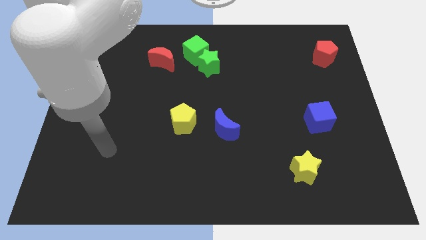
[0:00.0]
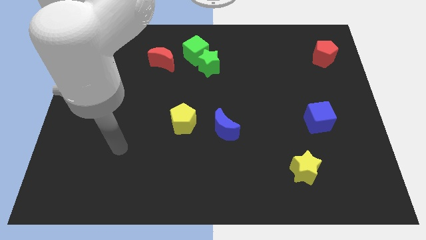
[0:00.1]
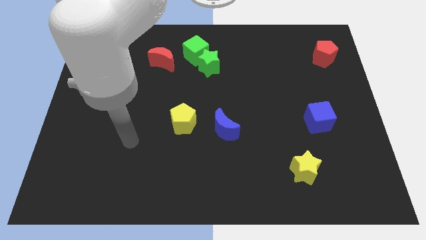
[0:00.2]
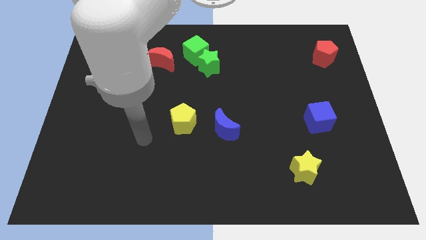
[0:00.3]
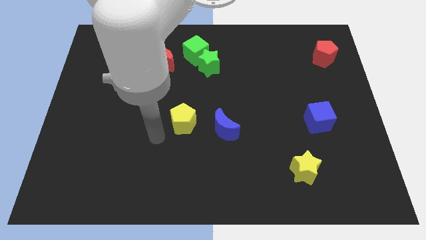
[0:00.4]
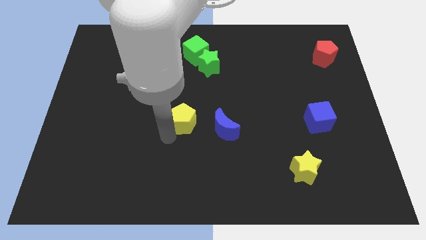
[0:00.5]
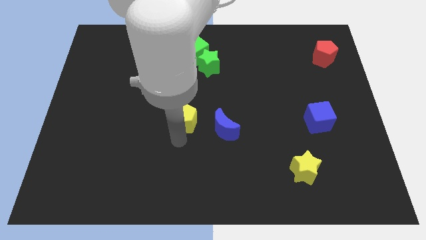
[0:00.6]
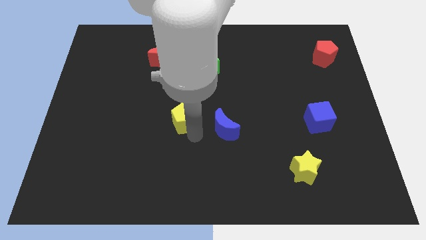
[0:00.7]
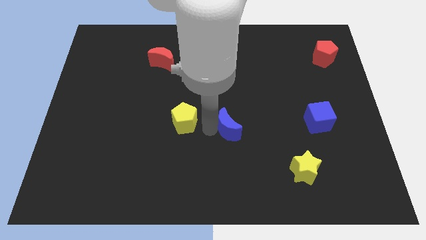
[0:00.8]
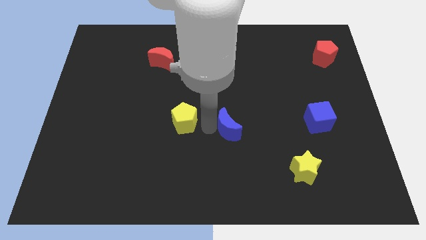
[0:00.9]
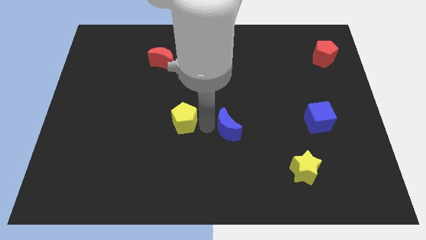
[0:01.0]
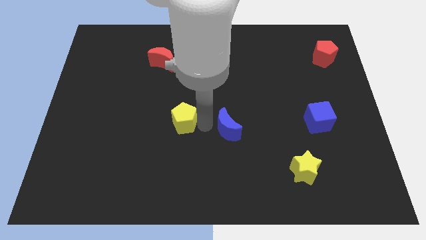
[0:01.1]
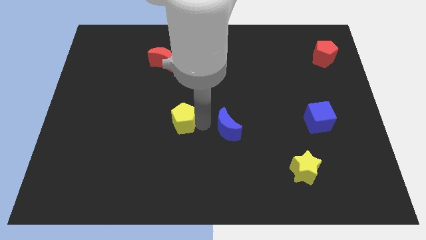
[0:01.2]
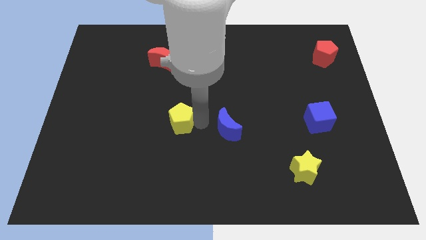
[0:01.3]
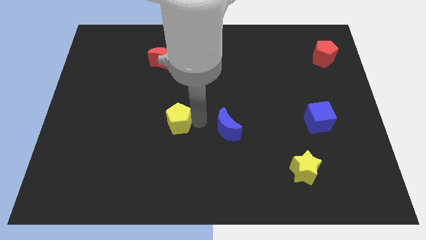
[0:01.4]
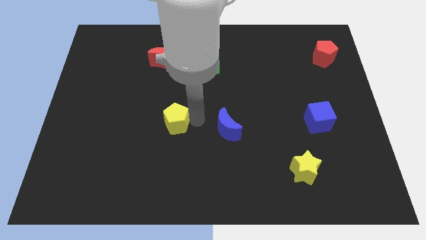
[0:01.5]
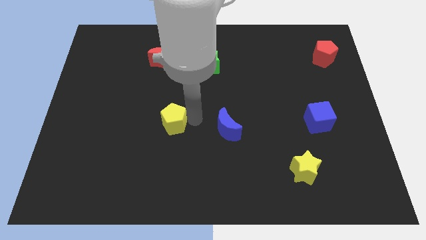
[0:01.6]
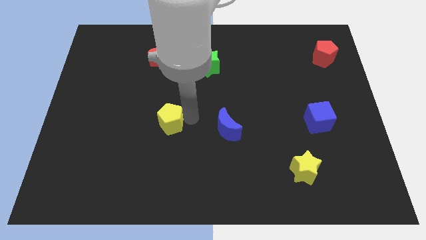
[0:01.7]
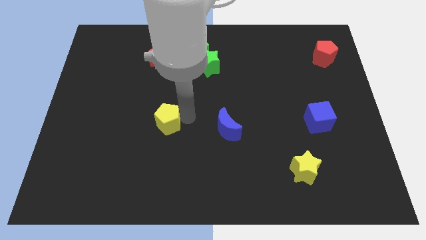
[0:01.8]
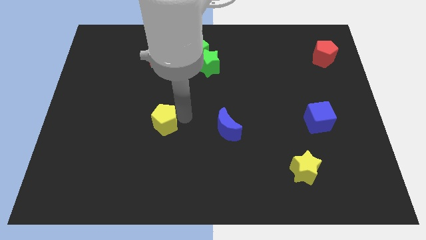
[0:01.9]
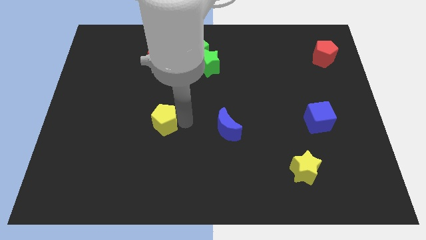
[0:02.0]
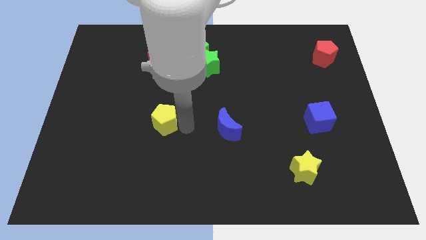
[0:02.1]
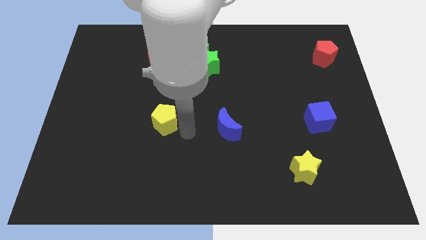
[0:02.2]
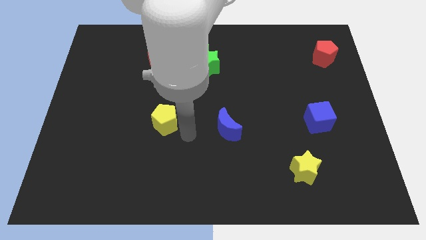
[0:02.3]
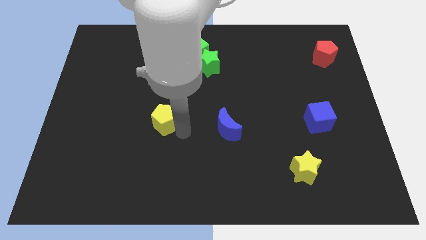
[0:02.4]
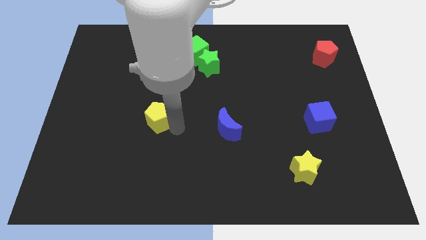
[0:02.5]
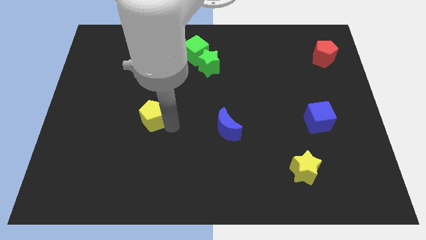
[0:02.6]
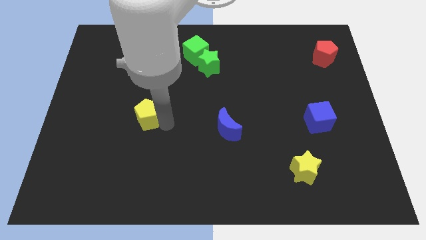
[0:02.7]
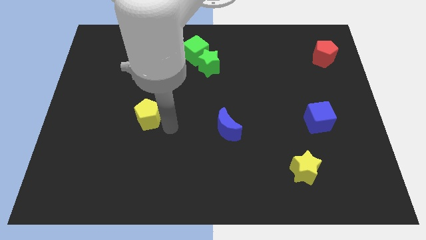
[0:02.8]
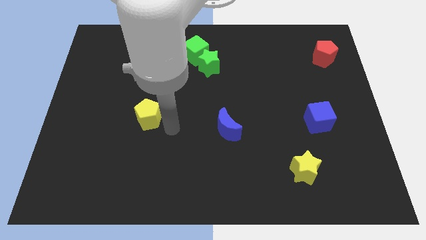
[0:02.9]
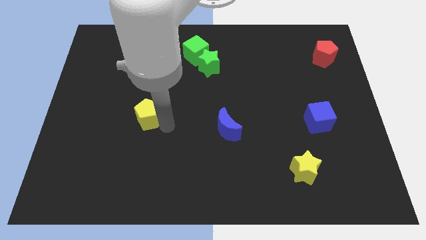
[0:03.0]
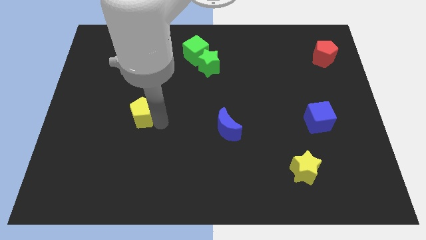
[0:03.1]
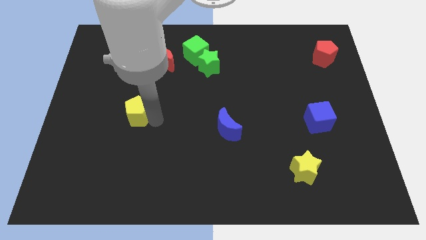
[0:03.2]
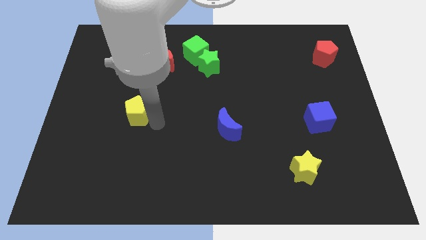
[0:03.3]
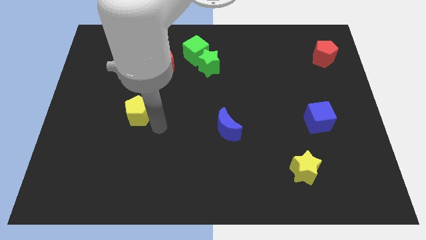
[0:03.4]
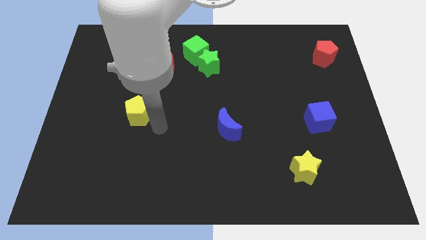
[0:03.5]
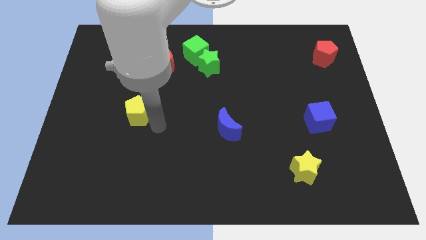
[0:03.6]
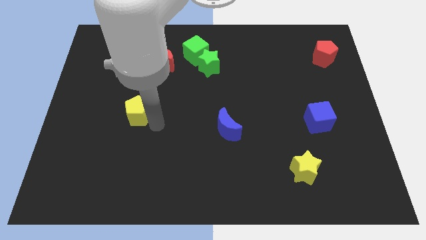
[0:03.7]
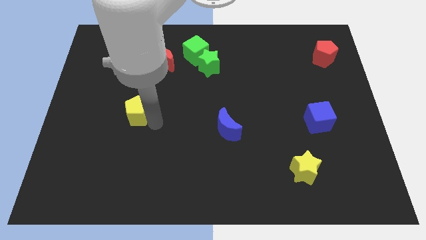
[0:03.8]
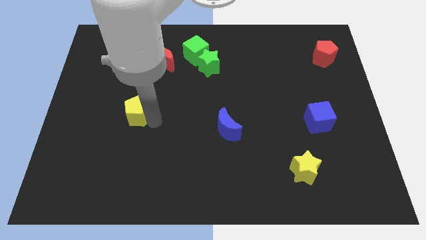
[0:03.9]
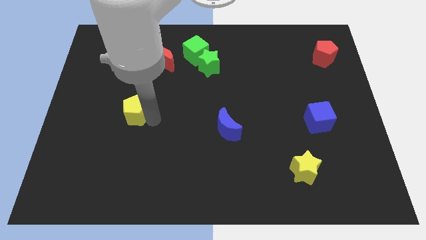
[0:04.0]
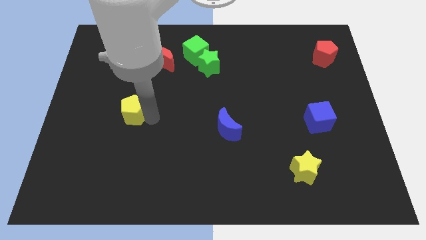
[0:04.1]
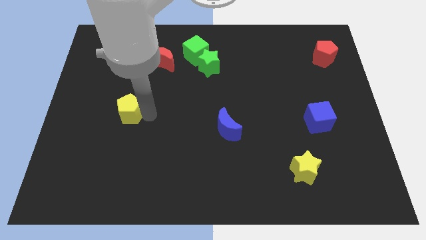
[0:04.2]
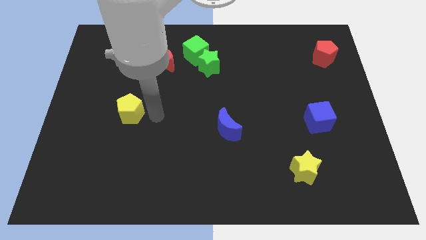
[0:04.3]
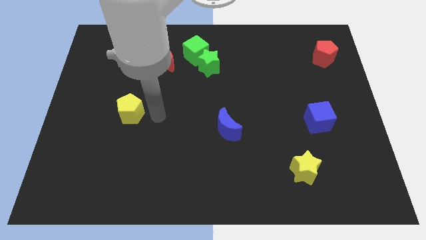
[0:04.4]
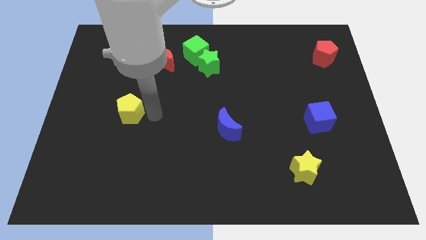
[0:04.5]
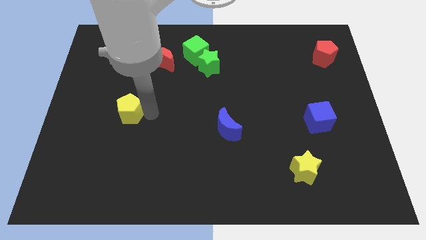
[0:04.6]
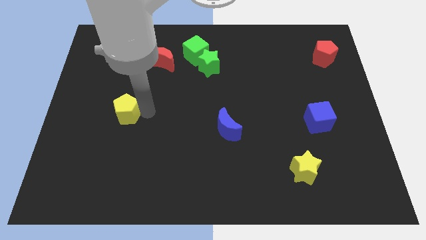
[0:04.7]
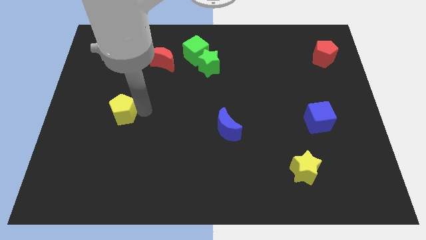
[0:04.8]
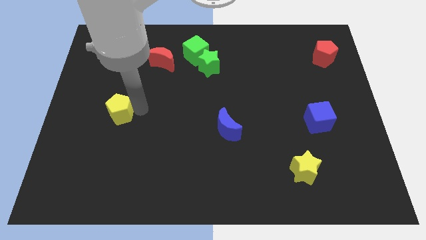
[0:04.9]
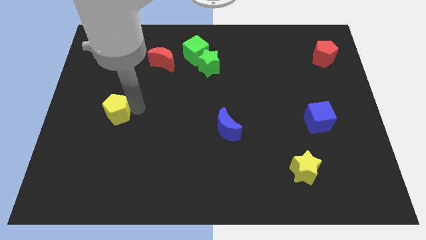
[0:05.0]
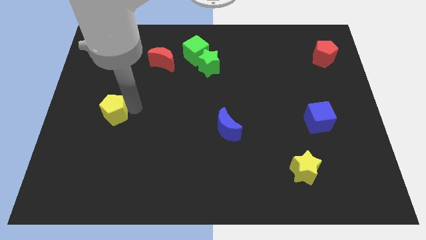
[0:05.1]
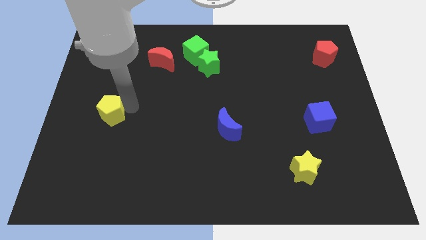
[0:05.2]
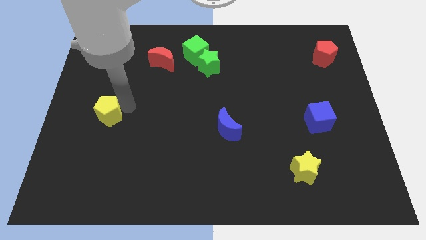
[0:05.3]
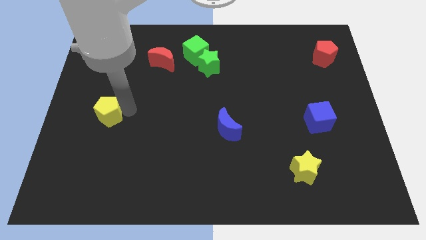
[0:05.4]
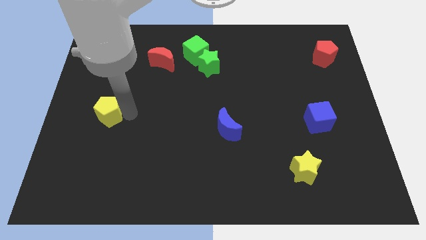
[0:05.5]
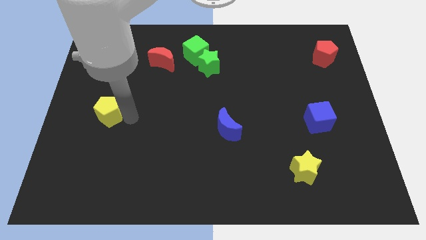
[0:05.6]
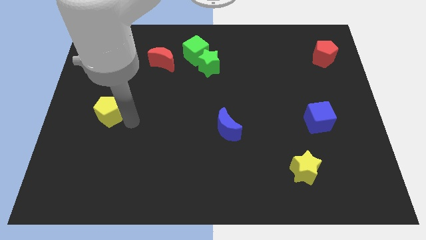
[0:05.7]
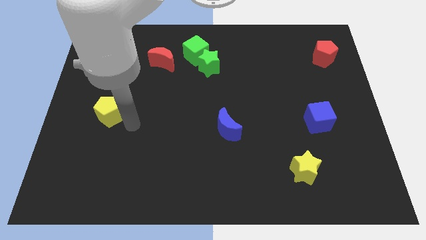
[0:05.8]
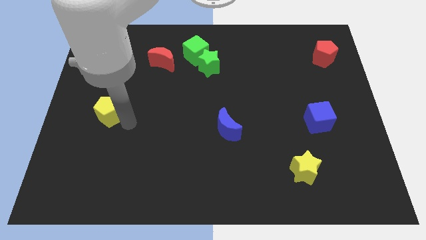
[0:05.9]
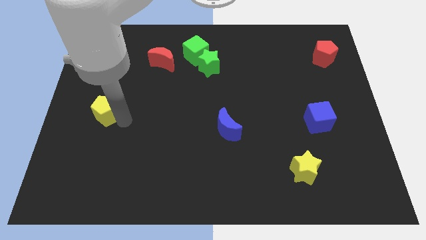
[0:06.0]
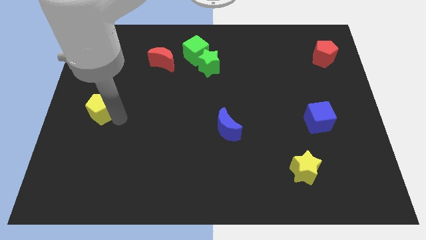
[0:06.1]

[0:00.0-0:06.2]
move the yellow pentagon to the left side of the board

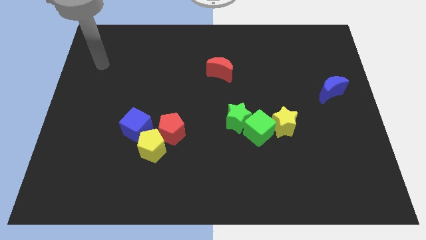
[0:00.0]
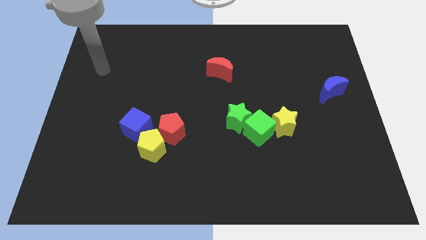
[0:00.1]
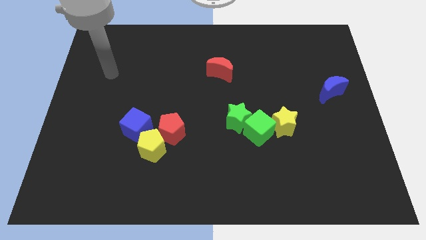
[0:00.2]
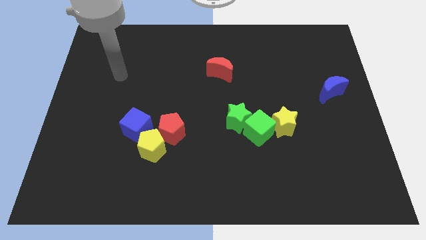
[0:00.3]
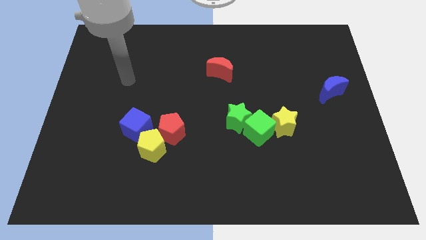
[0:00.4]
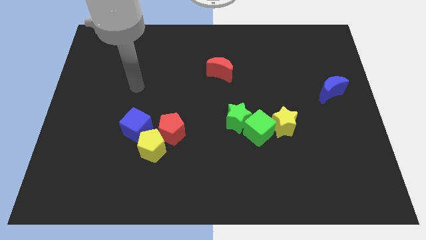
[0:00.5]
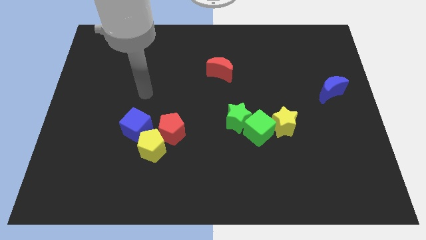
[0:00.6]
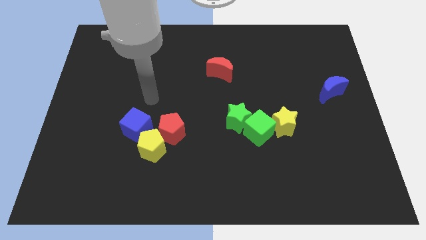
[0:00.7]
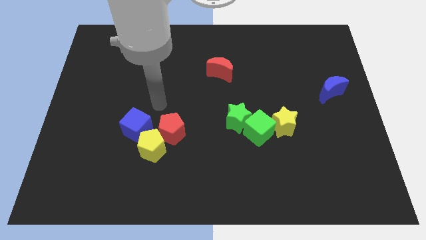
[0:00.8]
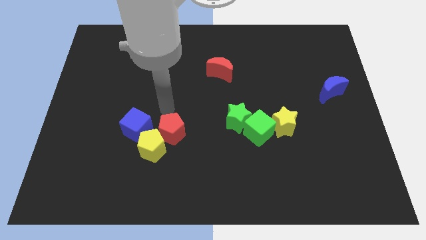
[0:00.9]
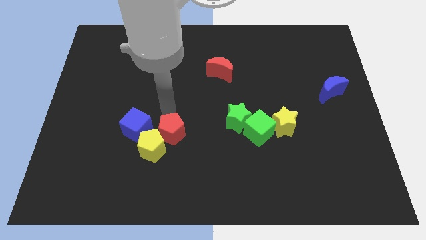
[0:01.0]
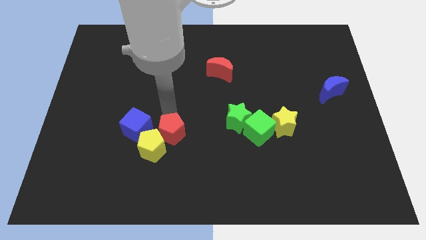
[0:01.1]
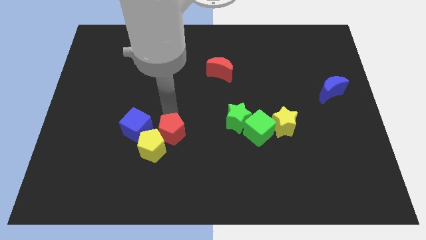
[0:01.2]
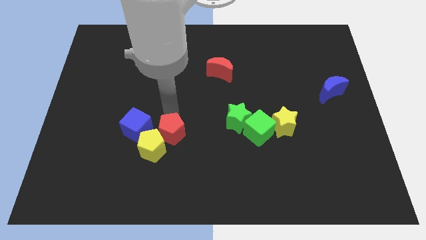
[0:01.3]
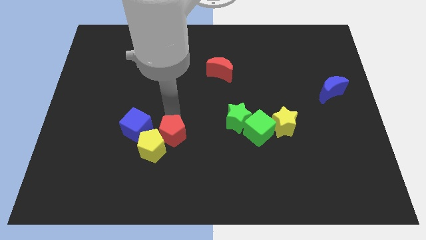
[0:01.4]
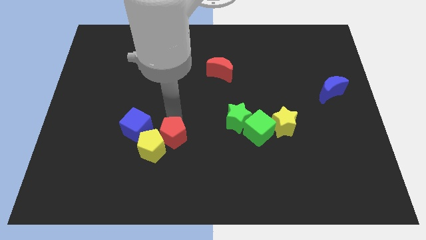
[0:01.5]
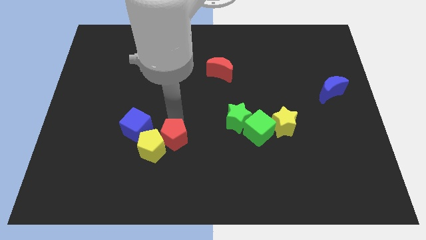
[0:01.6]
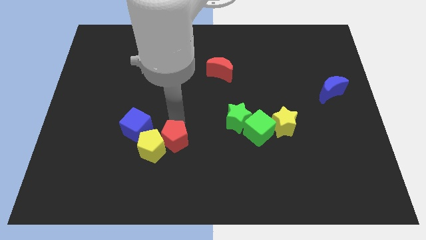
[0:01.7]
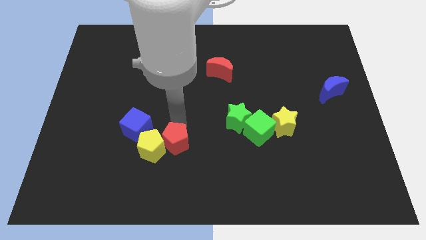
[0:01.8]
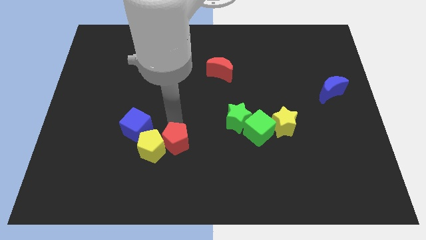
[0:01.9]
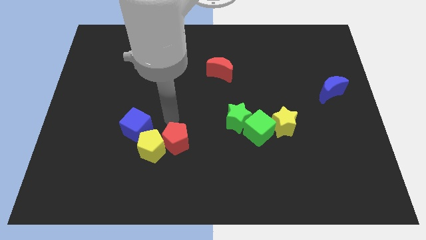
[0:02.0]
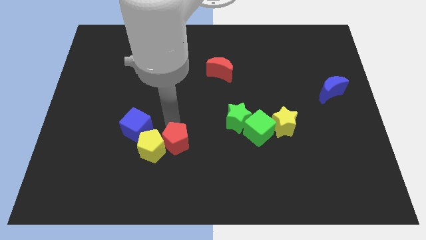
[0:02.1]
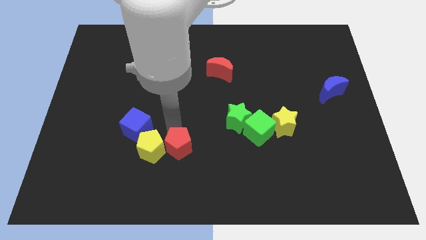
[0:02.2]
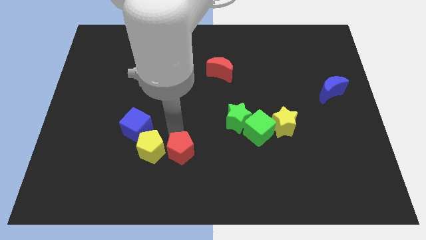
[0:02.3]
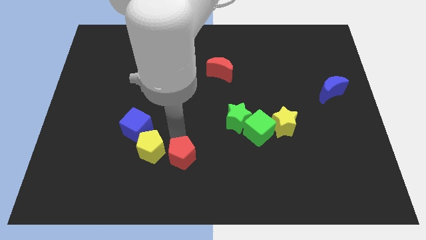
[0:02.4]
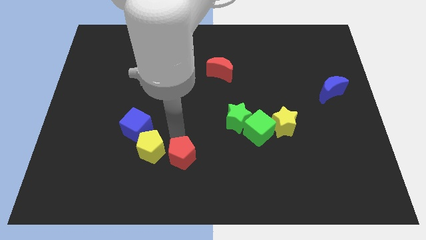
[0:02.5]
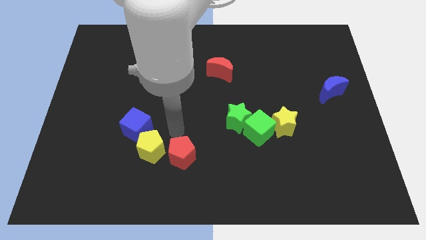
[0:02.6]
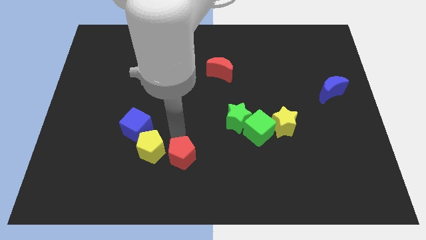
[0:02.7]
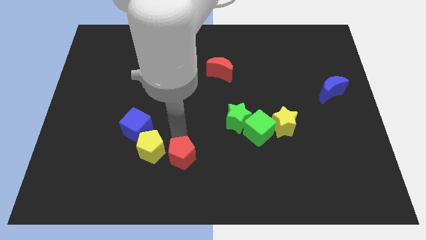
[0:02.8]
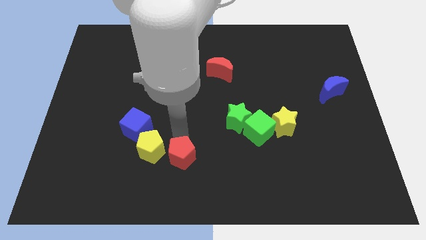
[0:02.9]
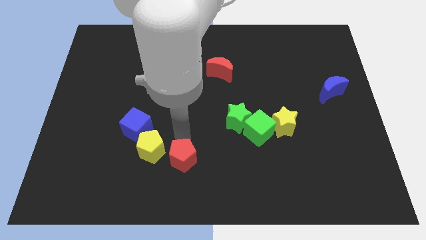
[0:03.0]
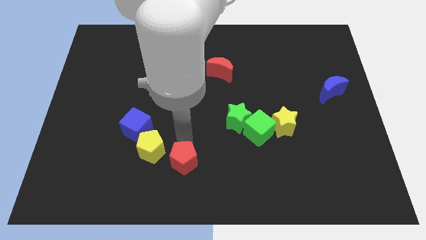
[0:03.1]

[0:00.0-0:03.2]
move the red pentagon to the bottom side
